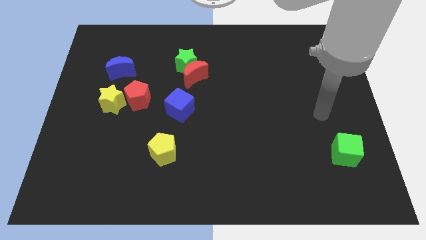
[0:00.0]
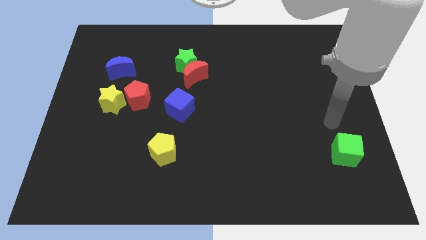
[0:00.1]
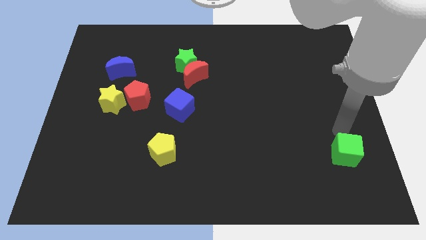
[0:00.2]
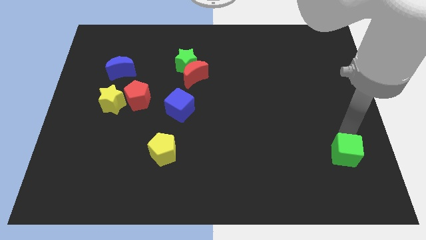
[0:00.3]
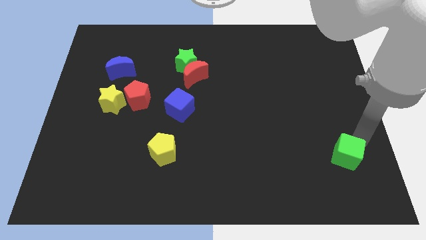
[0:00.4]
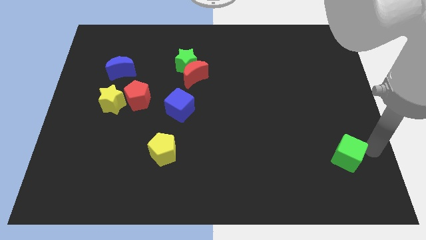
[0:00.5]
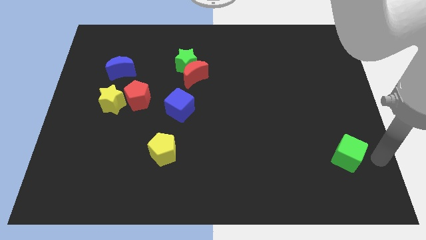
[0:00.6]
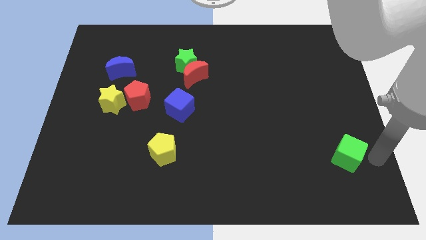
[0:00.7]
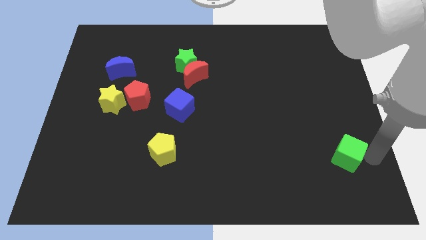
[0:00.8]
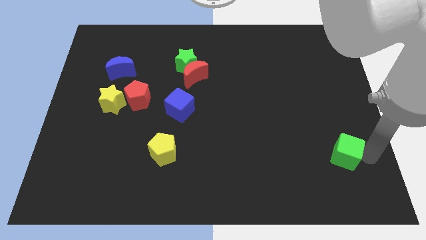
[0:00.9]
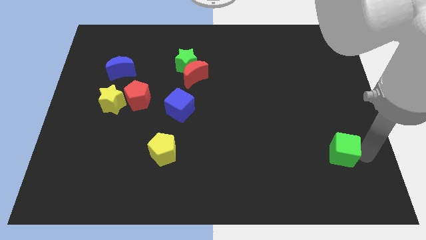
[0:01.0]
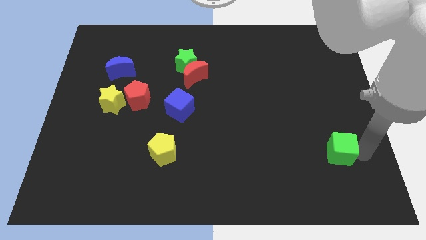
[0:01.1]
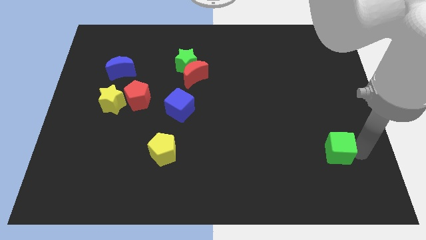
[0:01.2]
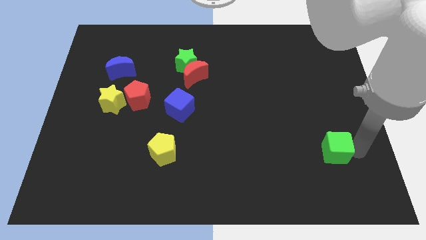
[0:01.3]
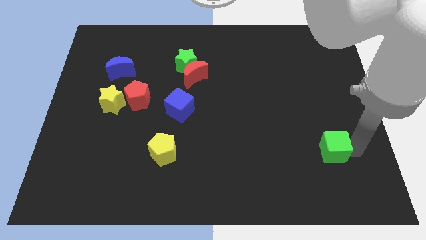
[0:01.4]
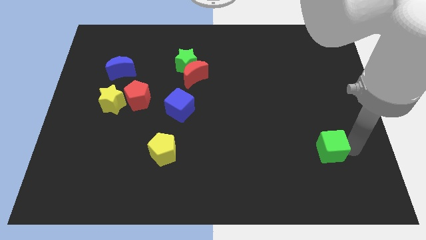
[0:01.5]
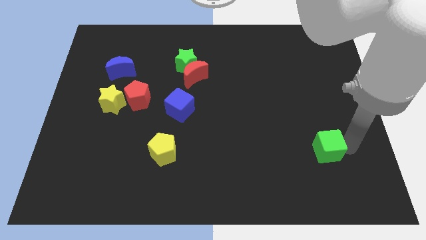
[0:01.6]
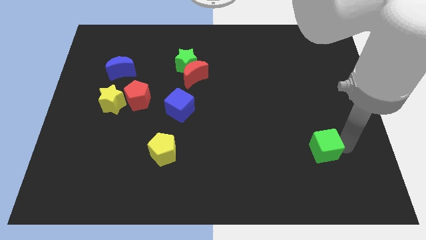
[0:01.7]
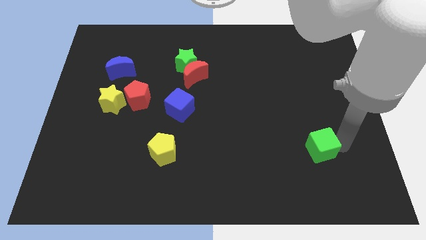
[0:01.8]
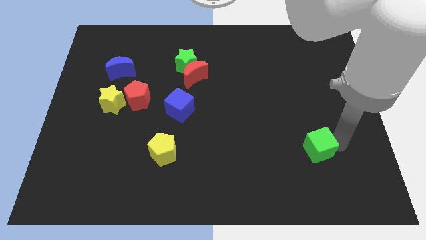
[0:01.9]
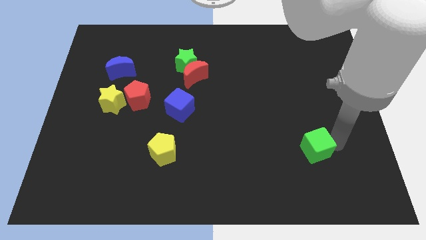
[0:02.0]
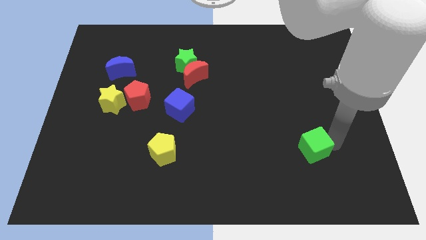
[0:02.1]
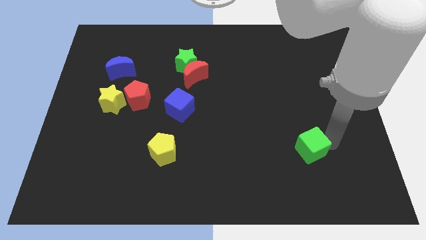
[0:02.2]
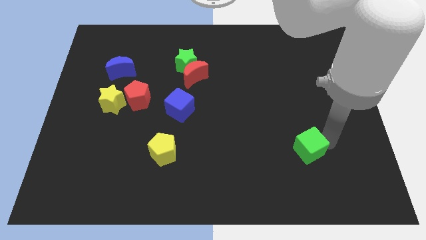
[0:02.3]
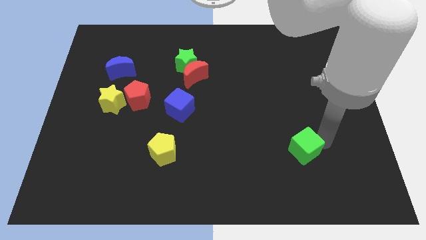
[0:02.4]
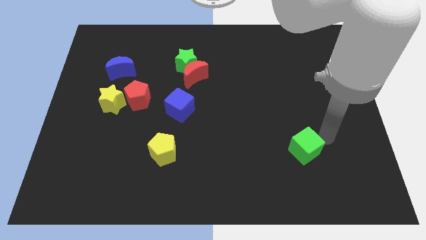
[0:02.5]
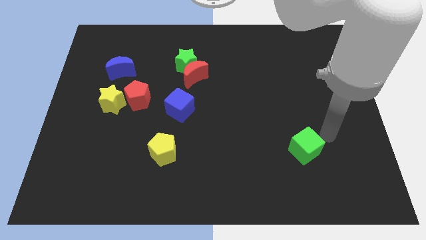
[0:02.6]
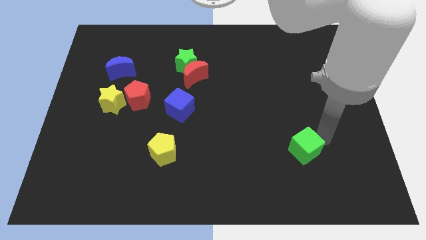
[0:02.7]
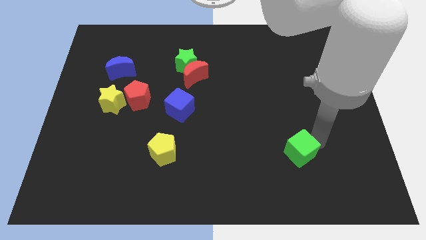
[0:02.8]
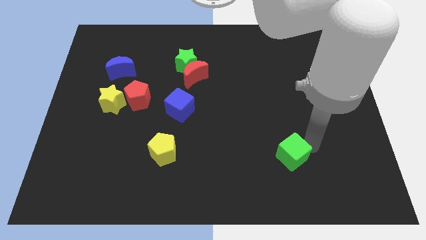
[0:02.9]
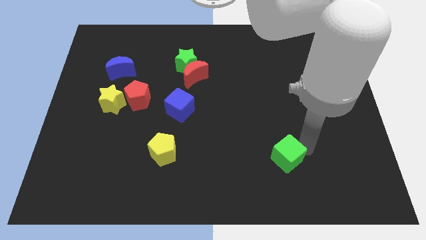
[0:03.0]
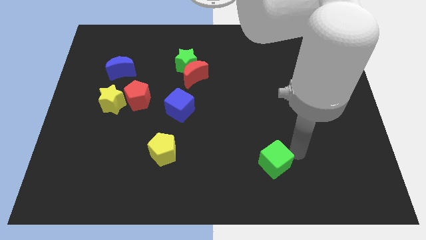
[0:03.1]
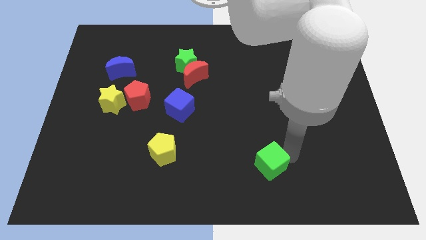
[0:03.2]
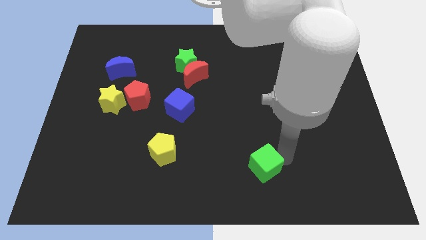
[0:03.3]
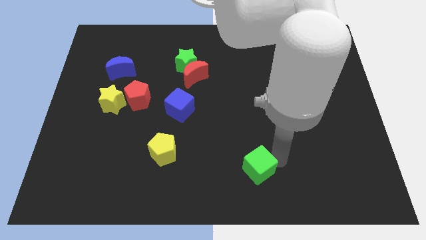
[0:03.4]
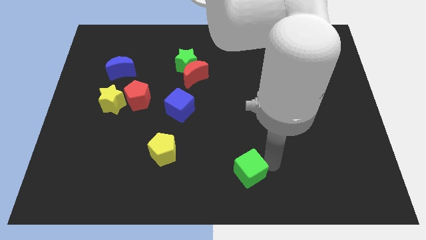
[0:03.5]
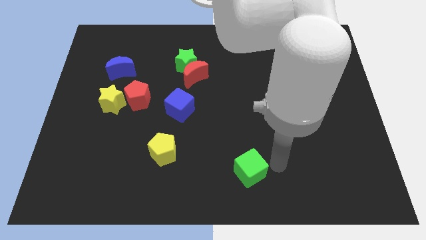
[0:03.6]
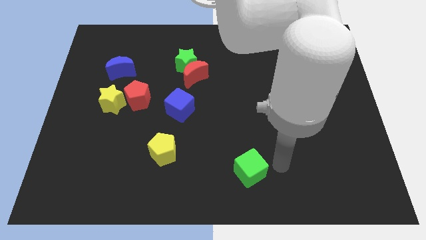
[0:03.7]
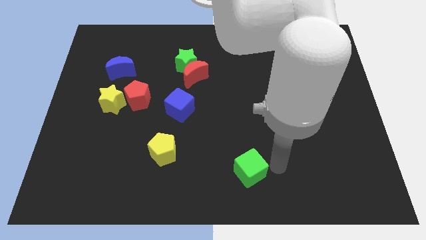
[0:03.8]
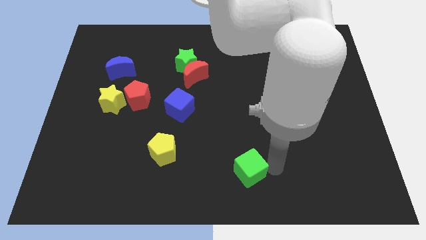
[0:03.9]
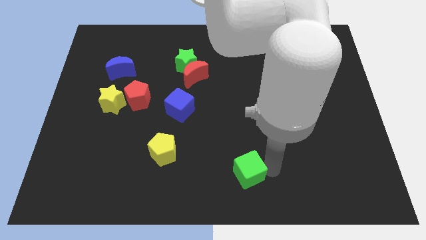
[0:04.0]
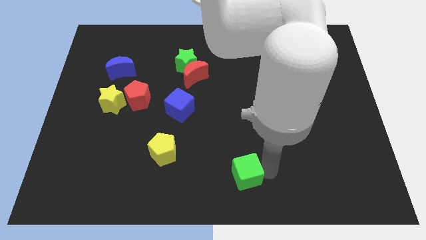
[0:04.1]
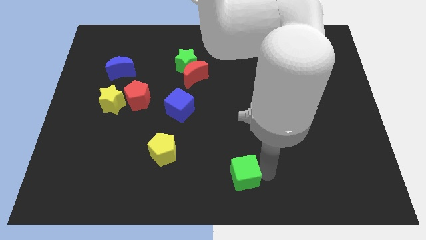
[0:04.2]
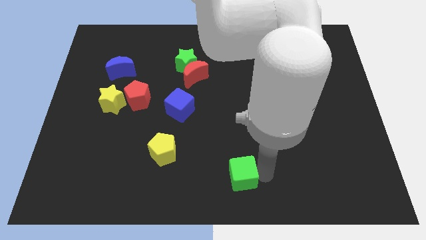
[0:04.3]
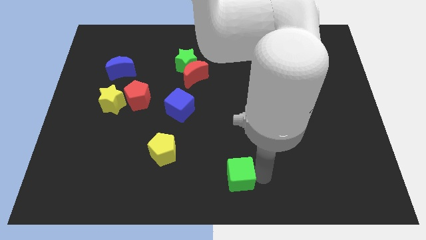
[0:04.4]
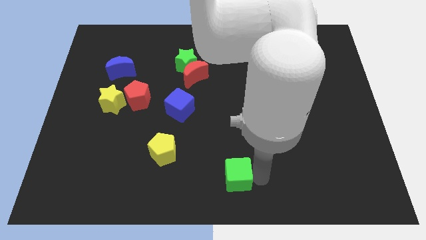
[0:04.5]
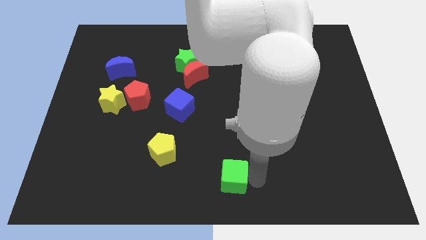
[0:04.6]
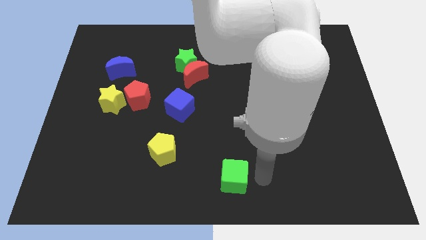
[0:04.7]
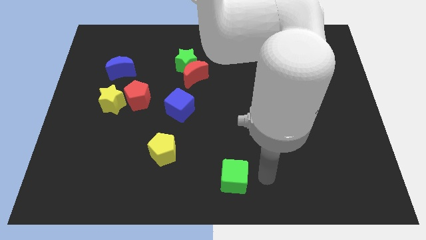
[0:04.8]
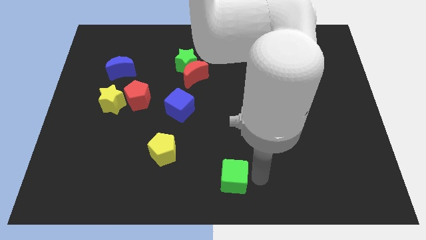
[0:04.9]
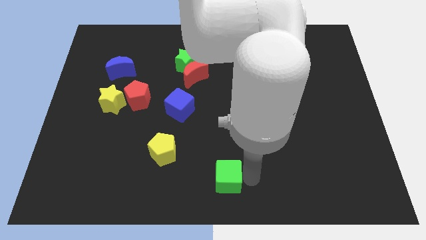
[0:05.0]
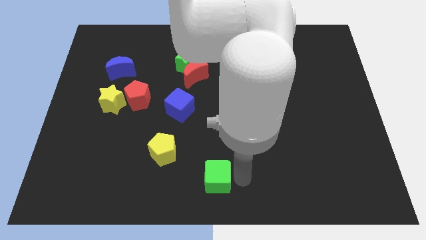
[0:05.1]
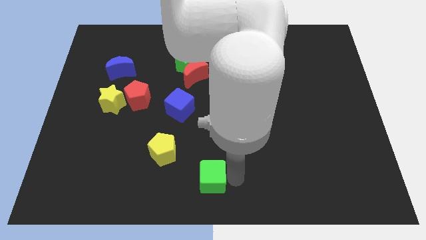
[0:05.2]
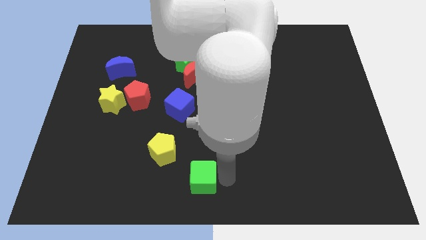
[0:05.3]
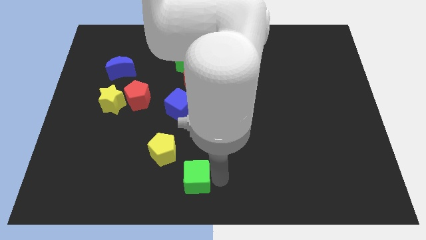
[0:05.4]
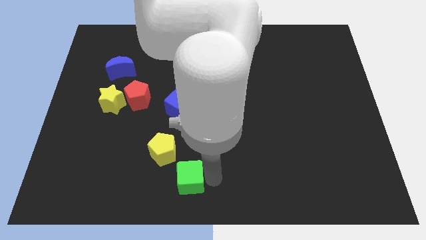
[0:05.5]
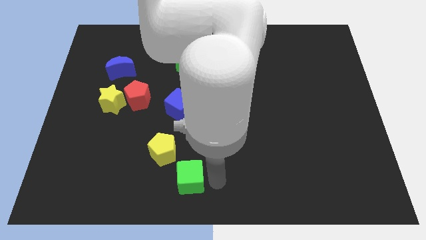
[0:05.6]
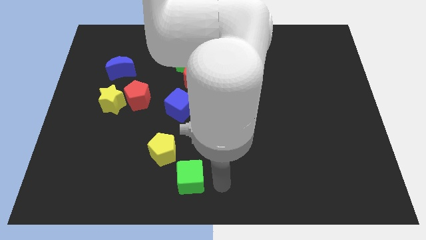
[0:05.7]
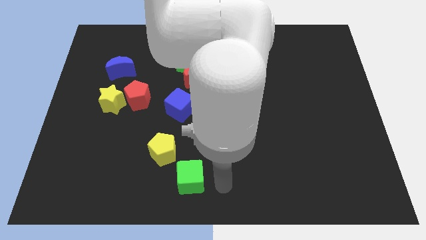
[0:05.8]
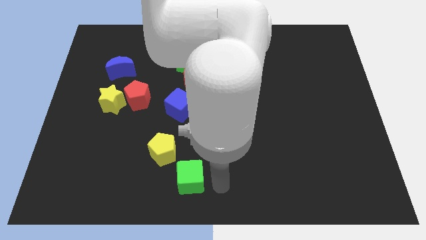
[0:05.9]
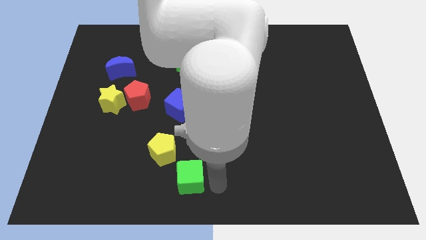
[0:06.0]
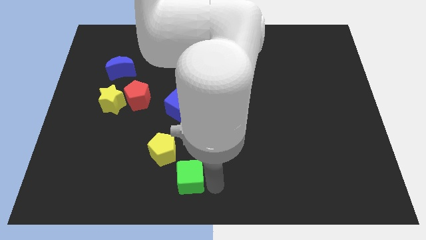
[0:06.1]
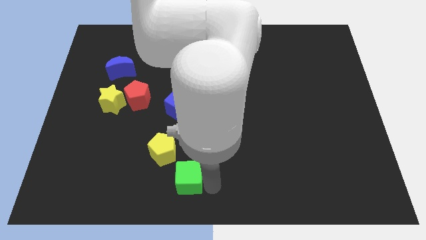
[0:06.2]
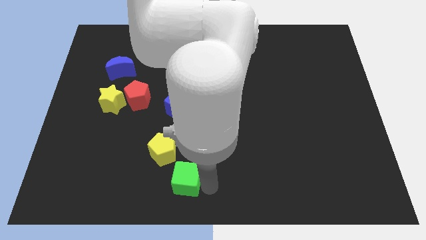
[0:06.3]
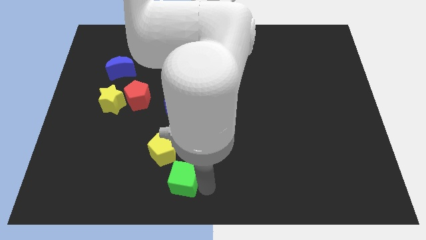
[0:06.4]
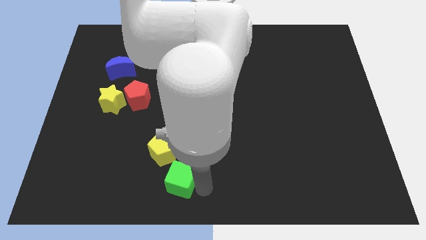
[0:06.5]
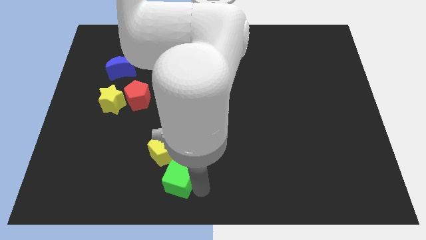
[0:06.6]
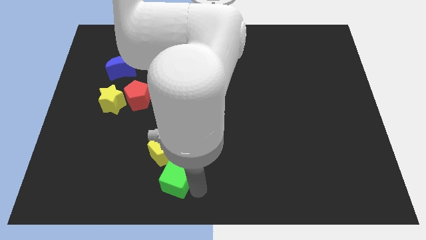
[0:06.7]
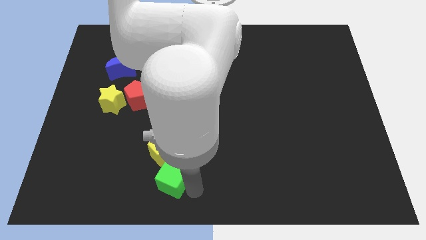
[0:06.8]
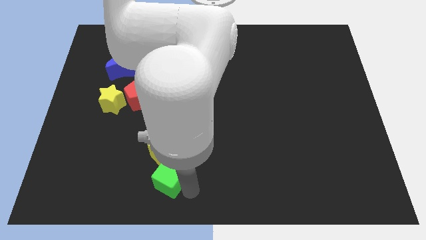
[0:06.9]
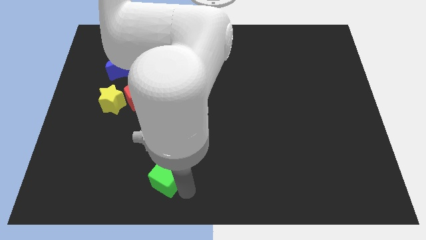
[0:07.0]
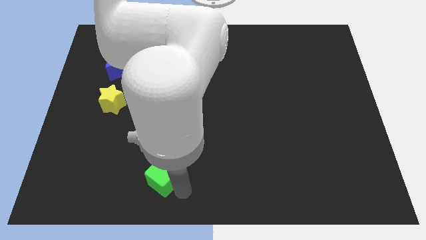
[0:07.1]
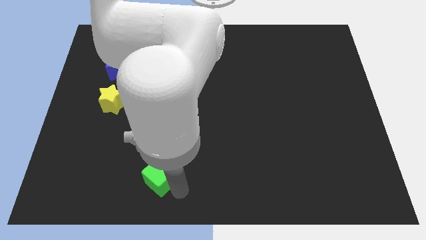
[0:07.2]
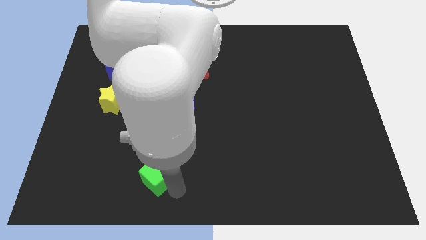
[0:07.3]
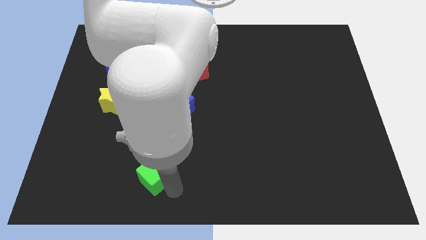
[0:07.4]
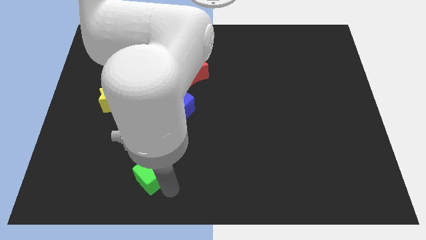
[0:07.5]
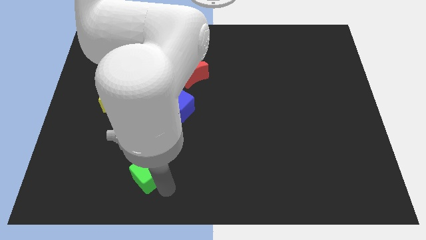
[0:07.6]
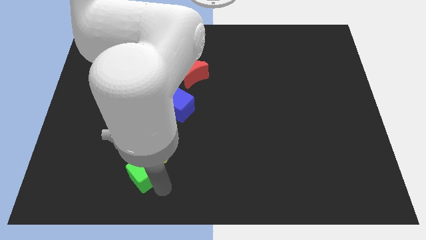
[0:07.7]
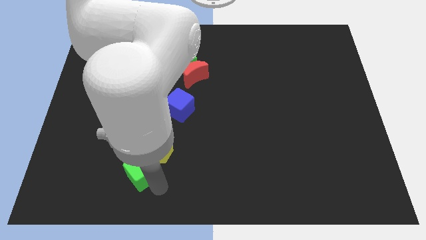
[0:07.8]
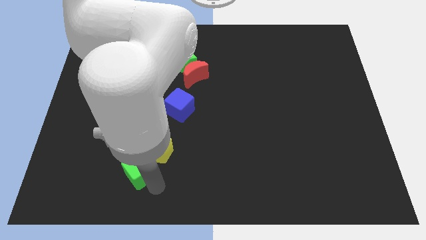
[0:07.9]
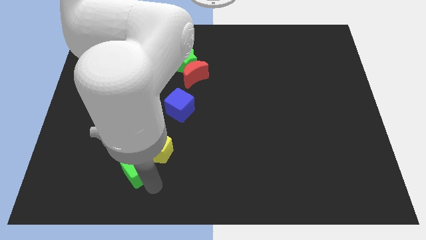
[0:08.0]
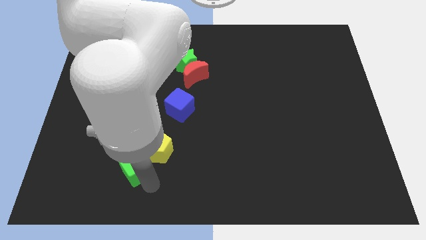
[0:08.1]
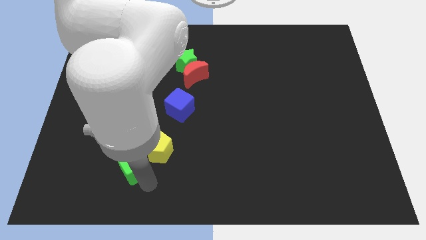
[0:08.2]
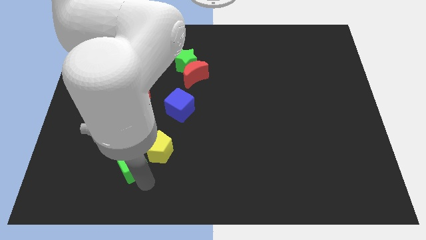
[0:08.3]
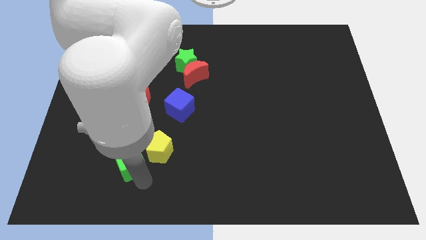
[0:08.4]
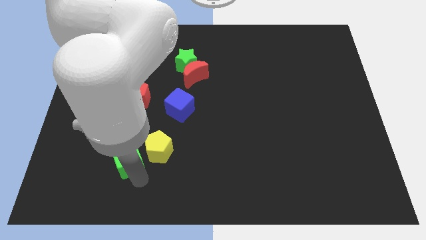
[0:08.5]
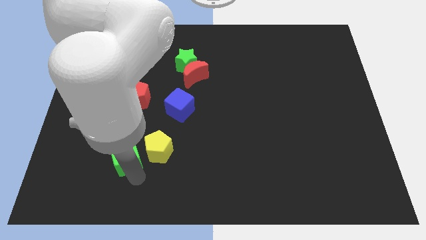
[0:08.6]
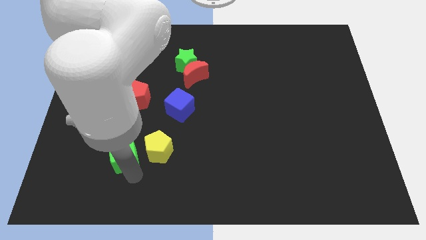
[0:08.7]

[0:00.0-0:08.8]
put the green cube to the bottom side of the red pentagon
